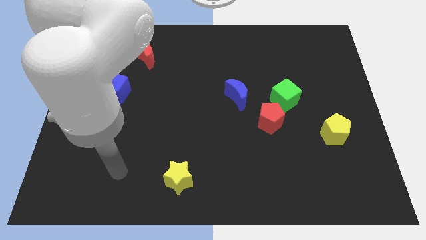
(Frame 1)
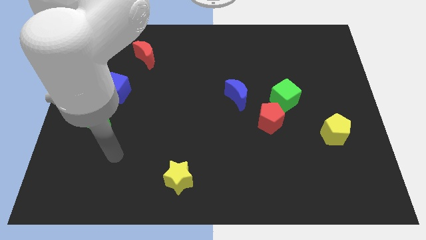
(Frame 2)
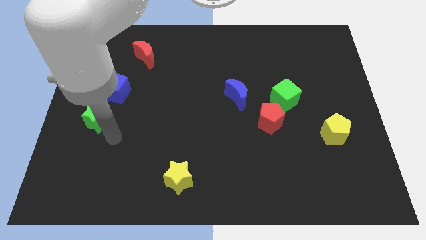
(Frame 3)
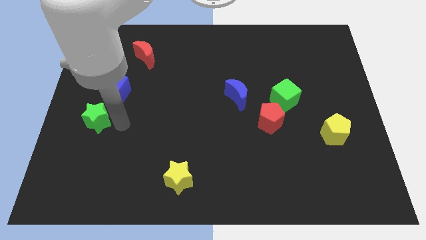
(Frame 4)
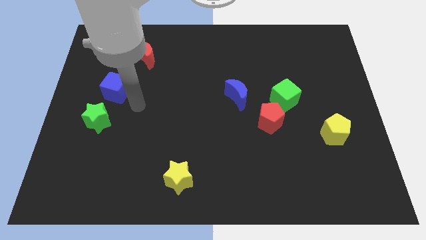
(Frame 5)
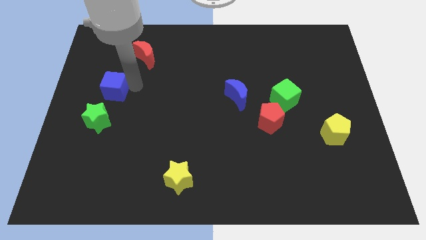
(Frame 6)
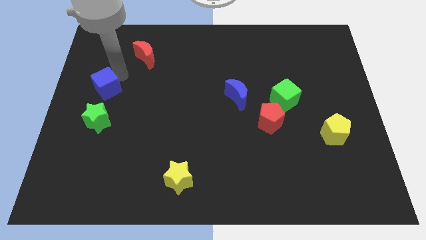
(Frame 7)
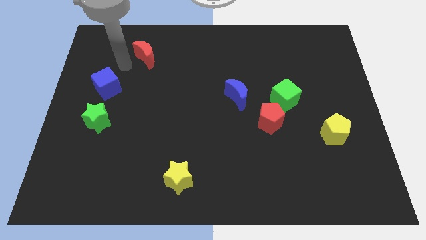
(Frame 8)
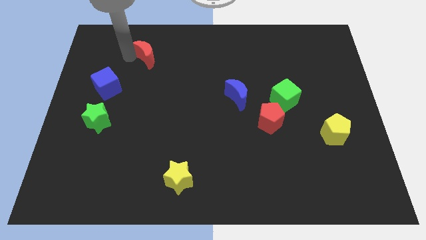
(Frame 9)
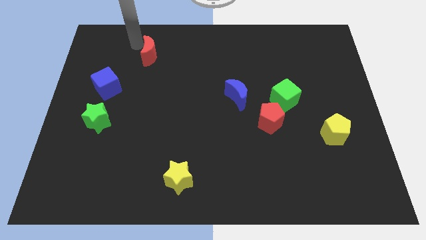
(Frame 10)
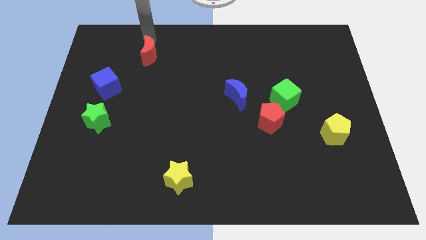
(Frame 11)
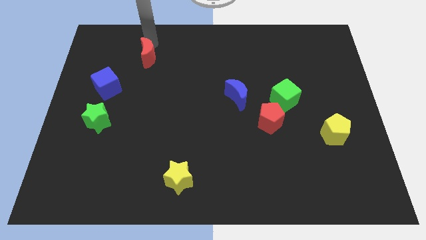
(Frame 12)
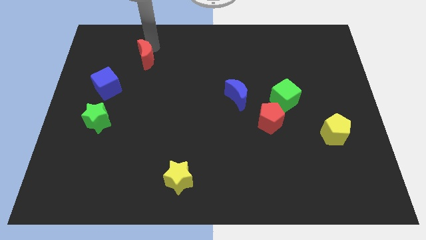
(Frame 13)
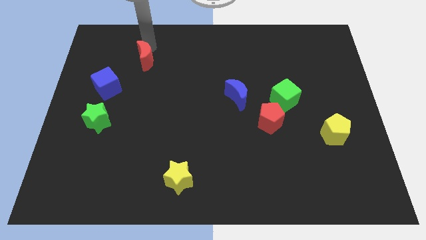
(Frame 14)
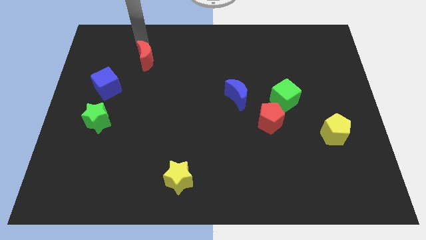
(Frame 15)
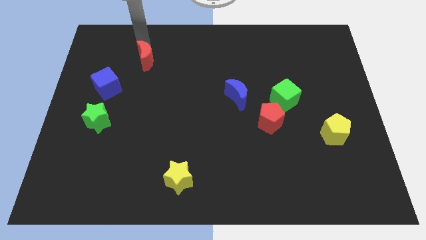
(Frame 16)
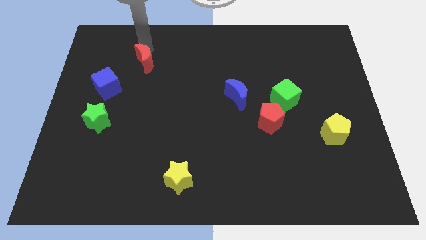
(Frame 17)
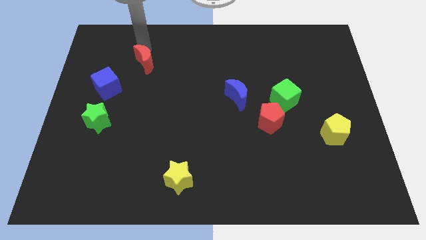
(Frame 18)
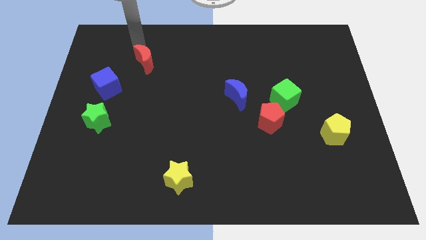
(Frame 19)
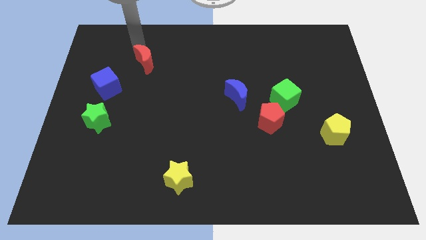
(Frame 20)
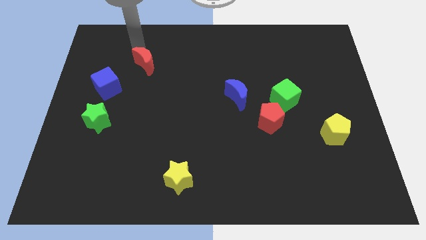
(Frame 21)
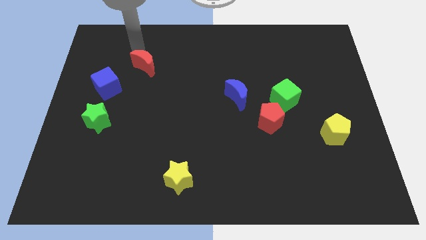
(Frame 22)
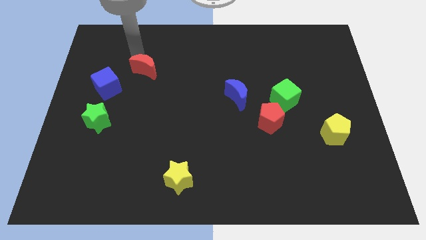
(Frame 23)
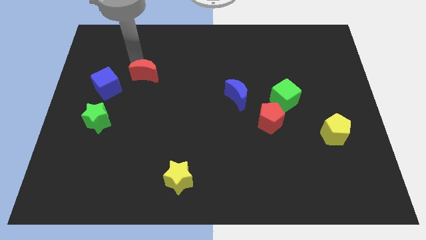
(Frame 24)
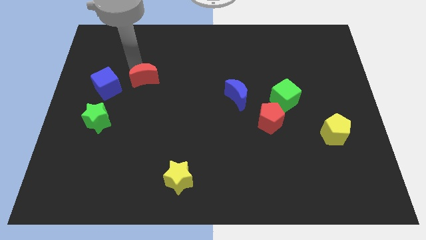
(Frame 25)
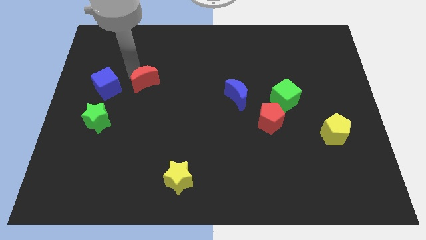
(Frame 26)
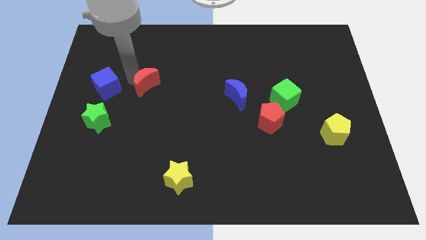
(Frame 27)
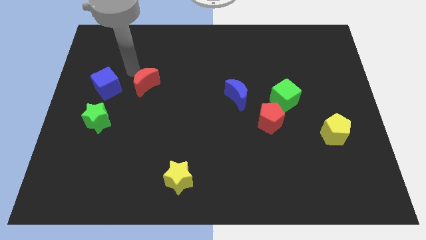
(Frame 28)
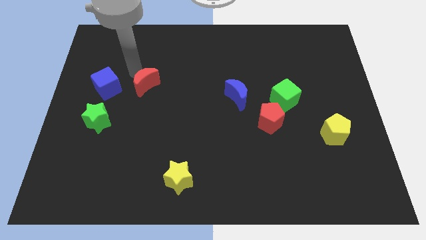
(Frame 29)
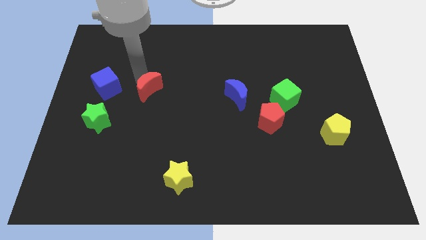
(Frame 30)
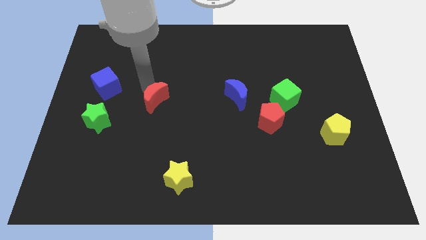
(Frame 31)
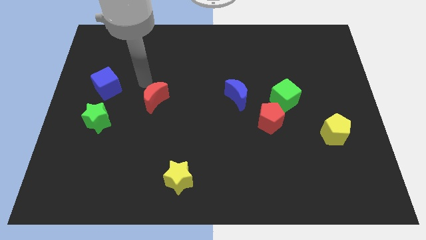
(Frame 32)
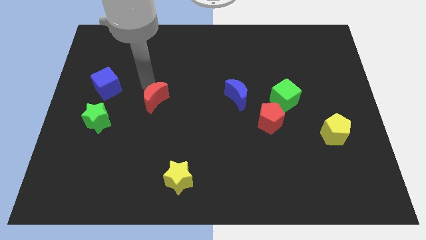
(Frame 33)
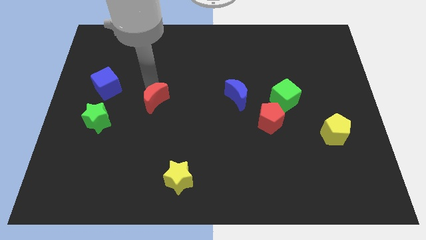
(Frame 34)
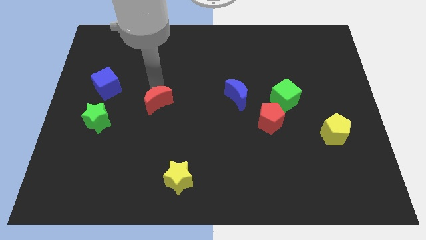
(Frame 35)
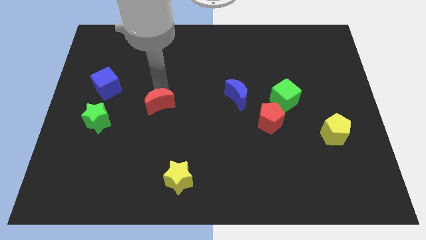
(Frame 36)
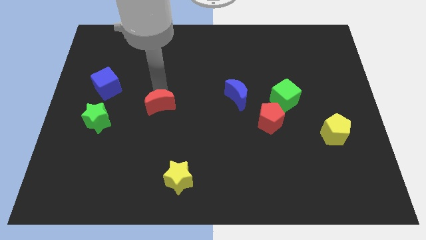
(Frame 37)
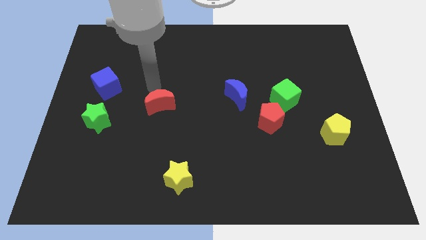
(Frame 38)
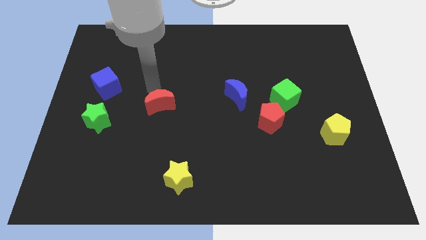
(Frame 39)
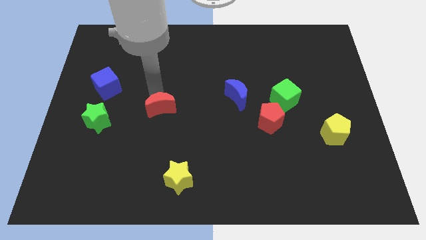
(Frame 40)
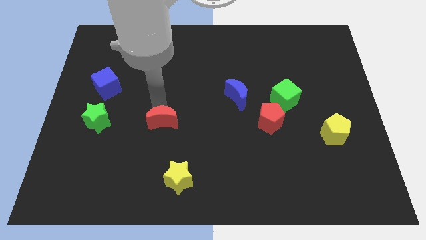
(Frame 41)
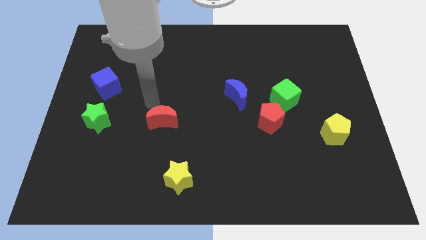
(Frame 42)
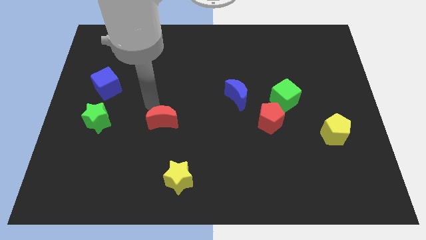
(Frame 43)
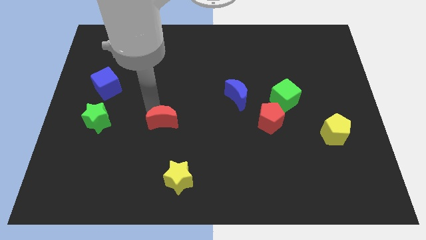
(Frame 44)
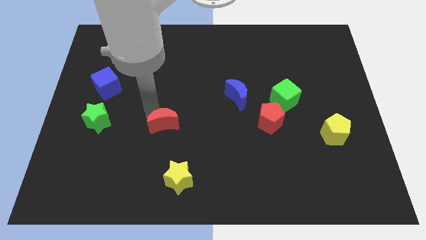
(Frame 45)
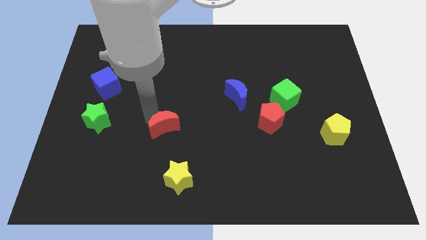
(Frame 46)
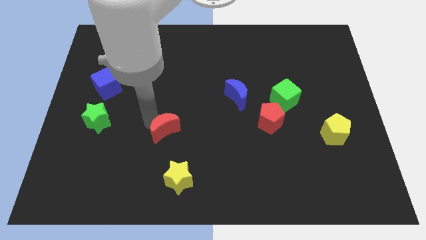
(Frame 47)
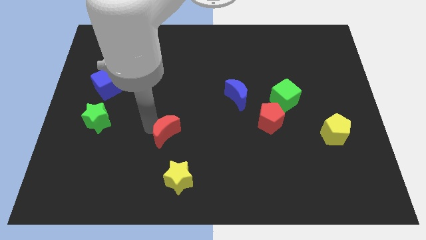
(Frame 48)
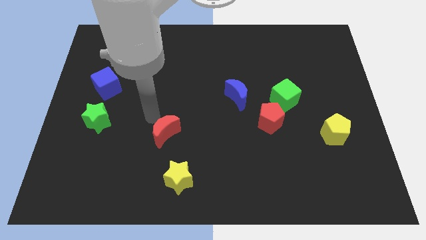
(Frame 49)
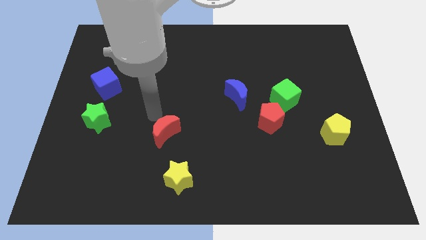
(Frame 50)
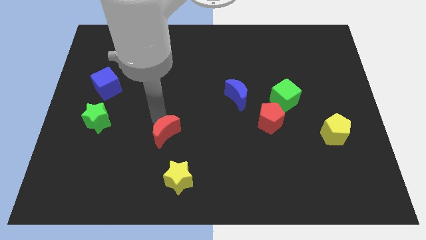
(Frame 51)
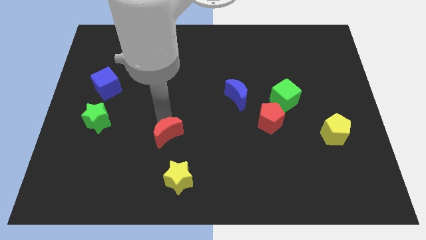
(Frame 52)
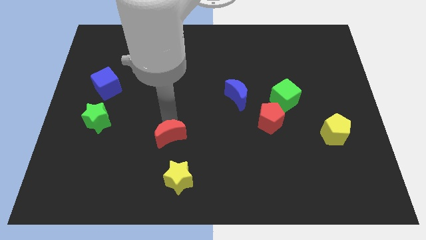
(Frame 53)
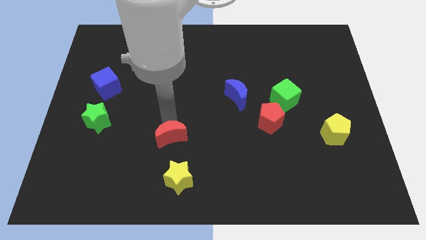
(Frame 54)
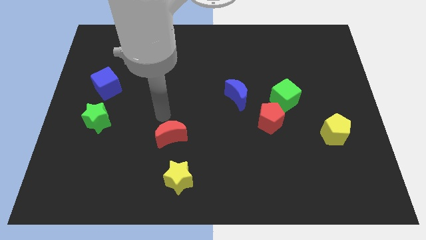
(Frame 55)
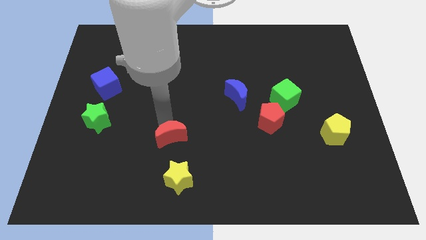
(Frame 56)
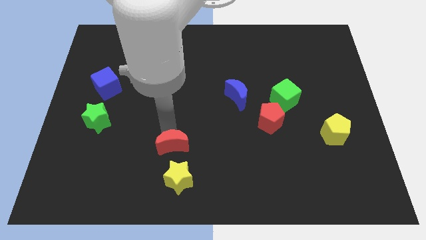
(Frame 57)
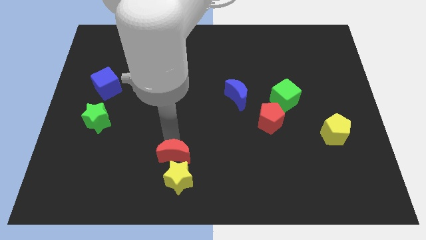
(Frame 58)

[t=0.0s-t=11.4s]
slide the red moon next to the yellow star

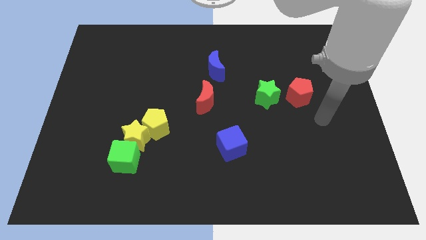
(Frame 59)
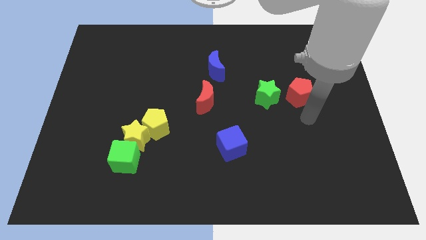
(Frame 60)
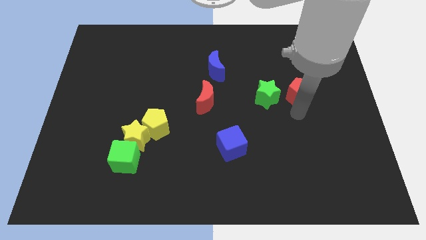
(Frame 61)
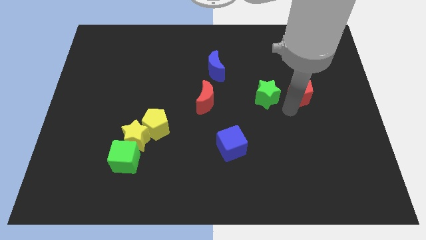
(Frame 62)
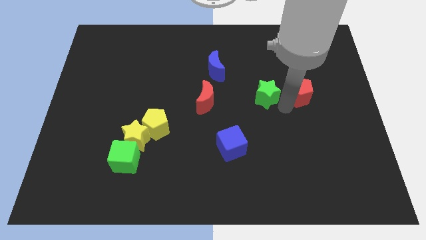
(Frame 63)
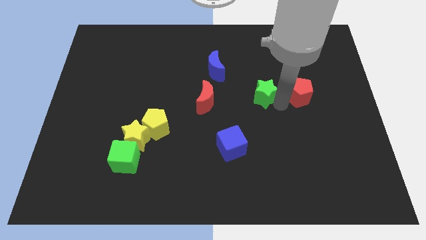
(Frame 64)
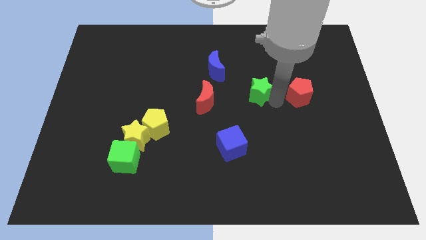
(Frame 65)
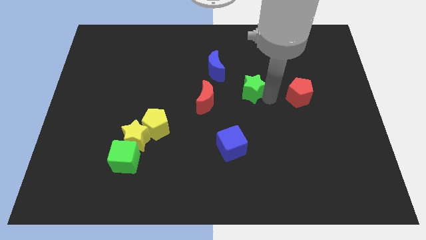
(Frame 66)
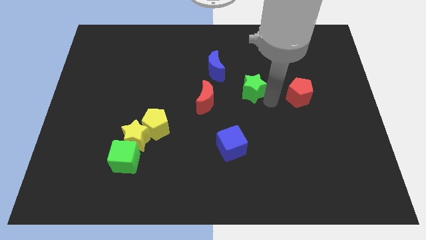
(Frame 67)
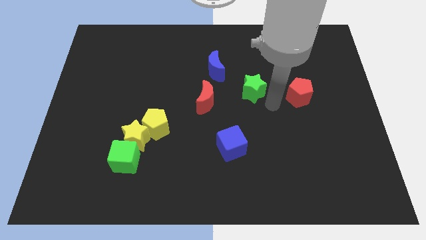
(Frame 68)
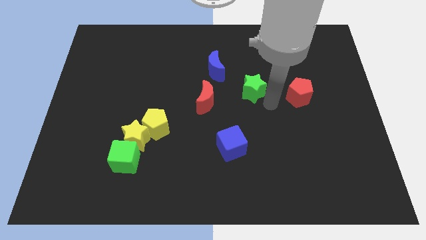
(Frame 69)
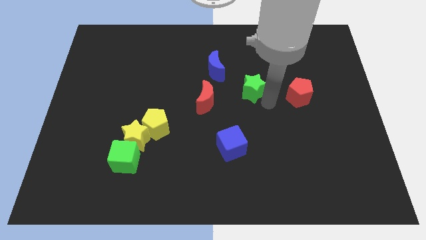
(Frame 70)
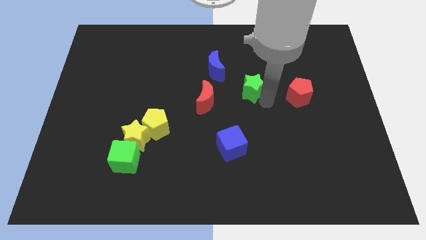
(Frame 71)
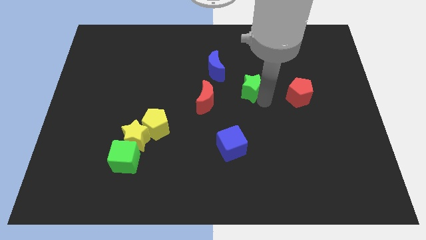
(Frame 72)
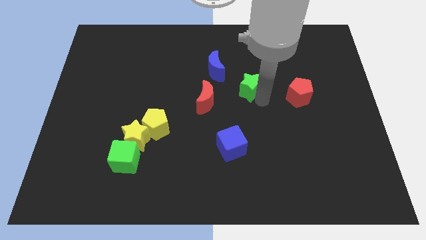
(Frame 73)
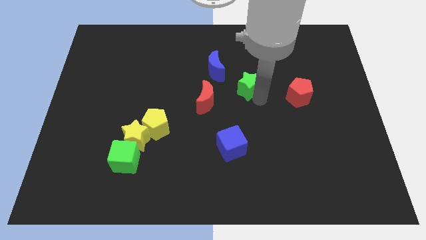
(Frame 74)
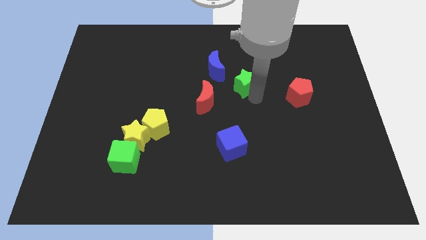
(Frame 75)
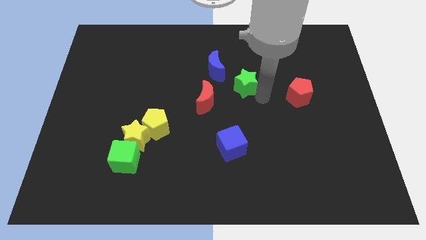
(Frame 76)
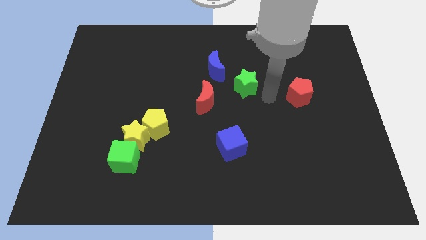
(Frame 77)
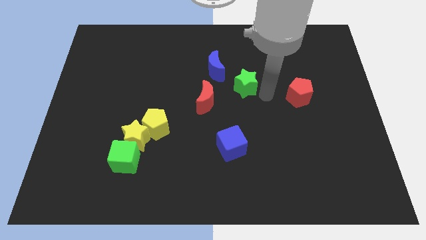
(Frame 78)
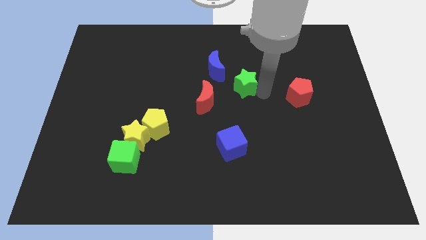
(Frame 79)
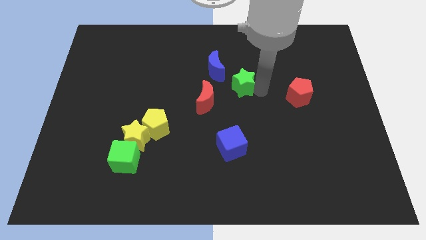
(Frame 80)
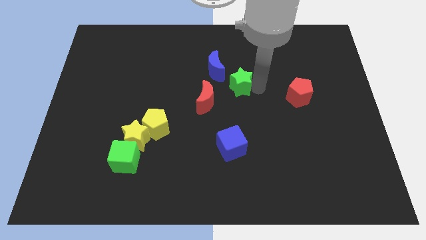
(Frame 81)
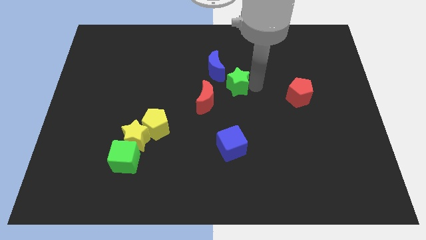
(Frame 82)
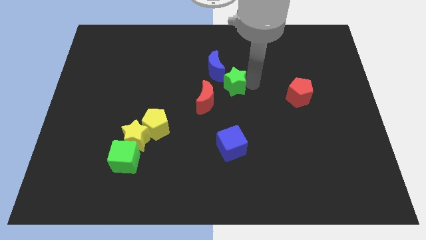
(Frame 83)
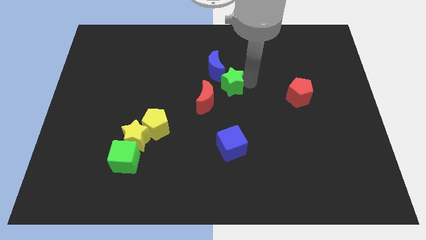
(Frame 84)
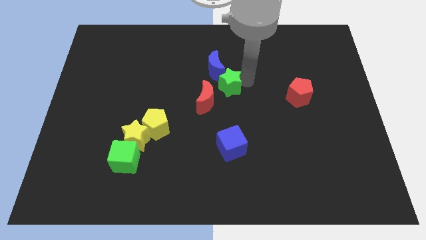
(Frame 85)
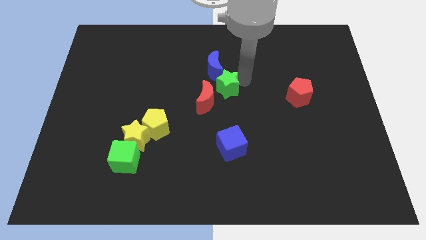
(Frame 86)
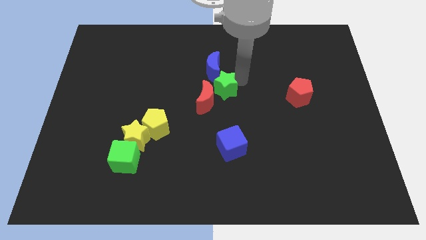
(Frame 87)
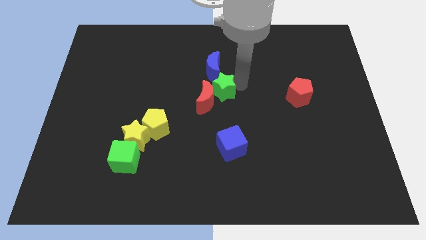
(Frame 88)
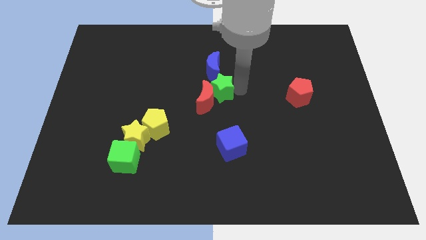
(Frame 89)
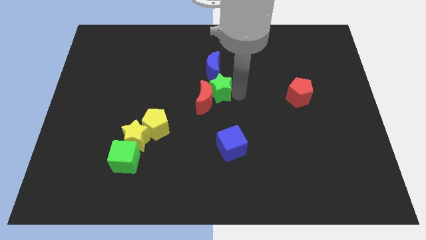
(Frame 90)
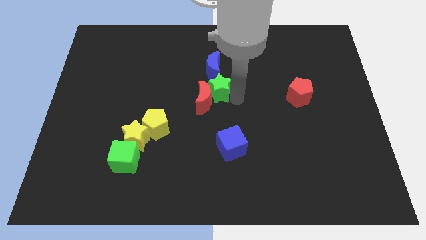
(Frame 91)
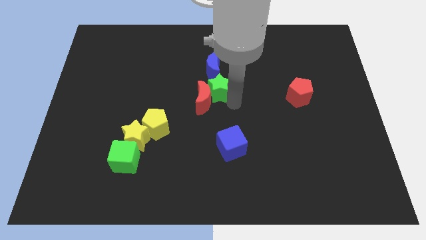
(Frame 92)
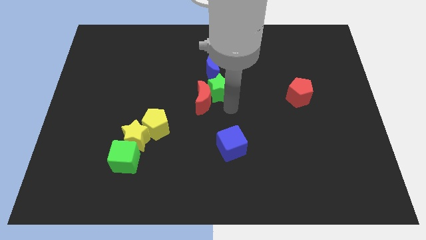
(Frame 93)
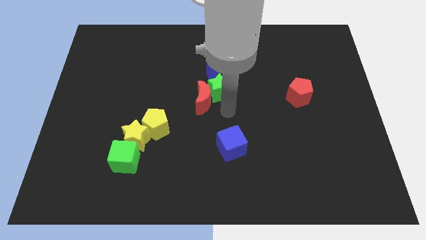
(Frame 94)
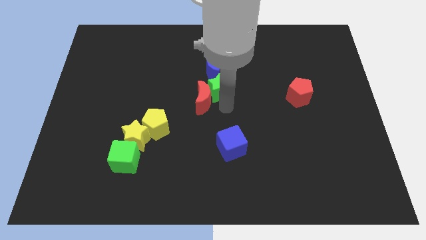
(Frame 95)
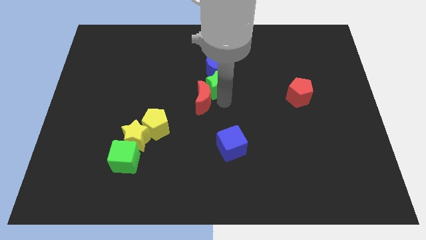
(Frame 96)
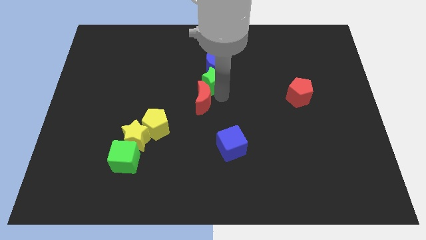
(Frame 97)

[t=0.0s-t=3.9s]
put the green star close to the blue moon
